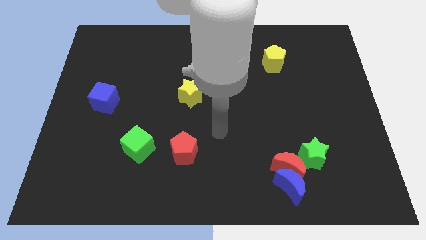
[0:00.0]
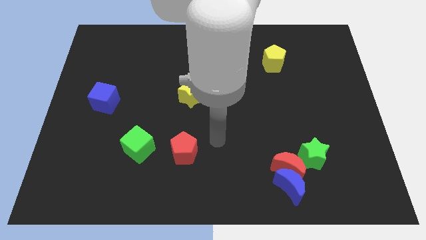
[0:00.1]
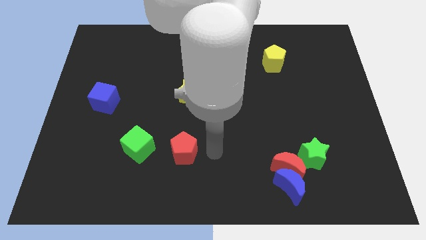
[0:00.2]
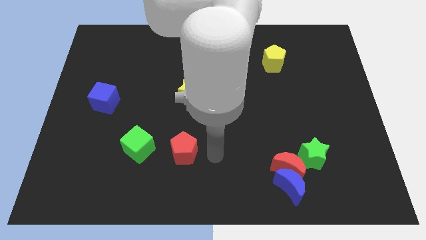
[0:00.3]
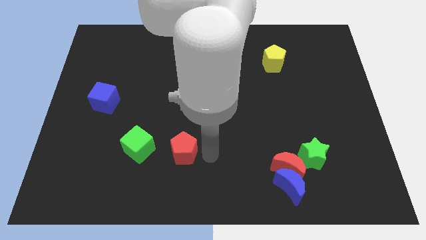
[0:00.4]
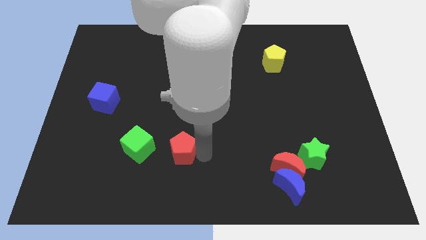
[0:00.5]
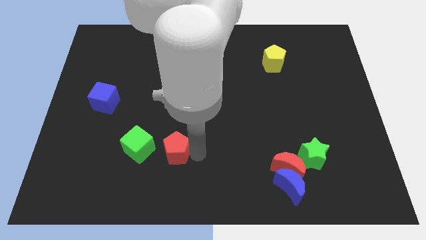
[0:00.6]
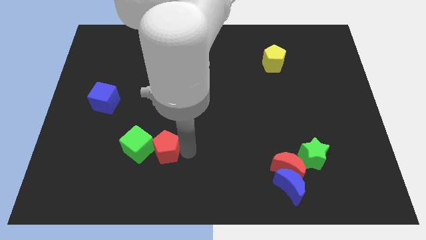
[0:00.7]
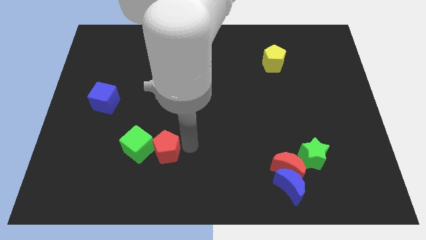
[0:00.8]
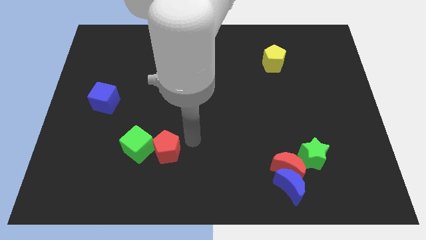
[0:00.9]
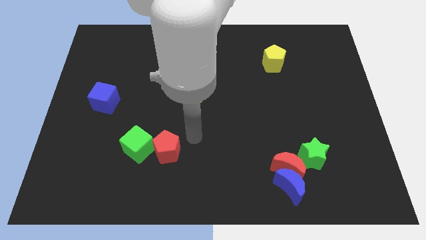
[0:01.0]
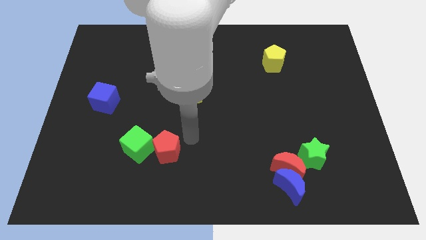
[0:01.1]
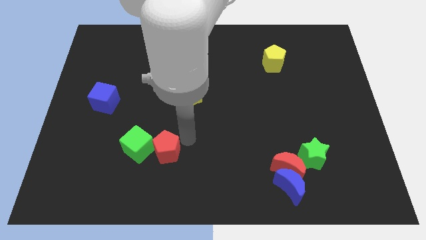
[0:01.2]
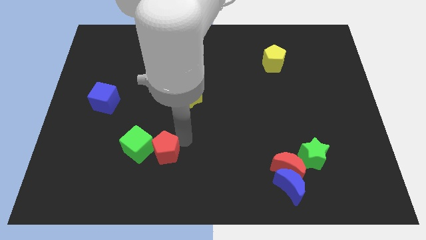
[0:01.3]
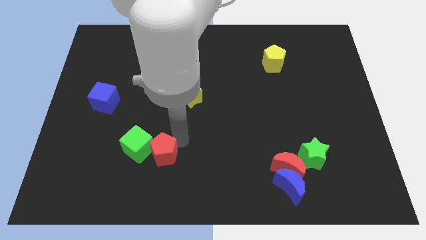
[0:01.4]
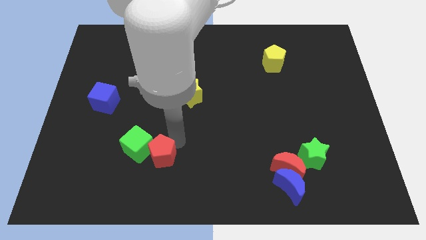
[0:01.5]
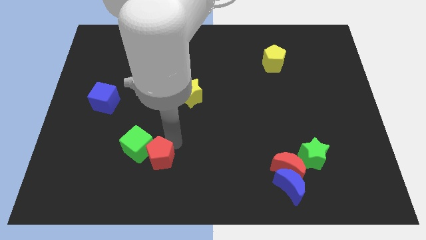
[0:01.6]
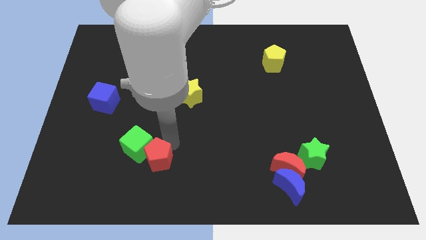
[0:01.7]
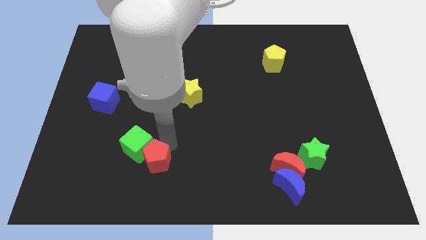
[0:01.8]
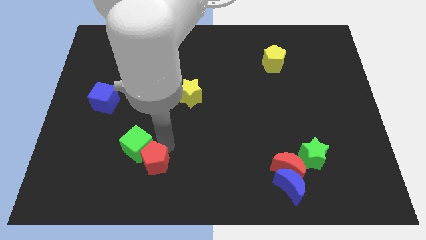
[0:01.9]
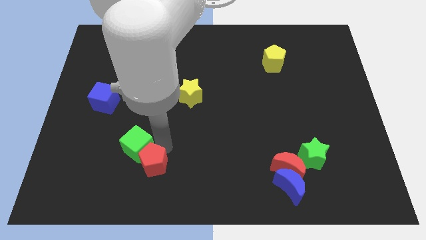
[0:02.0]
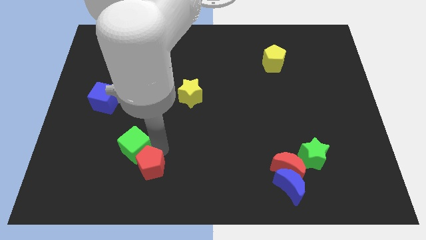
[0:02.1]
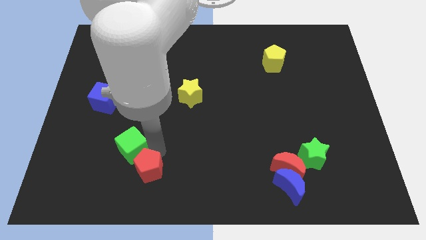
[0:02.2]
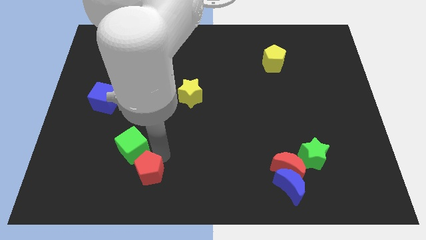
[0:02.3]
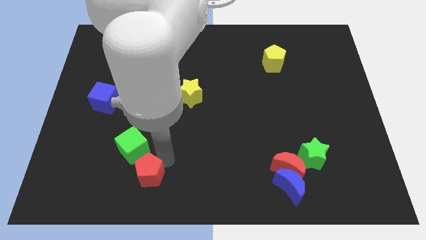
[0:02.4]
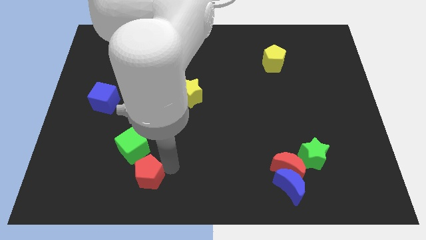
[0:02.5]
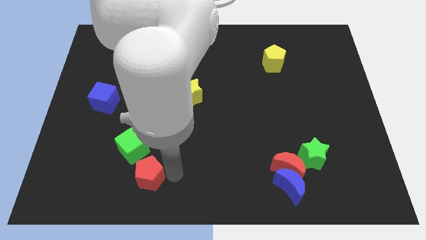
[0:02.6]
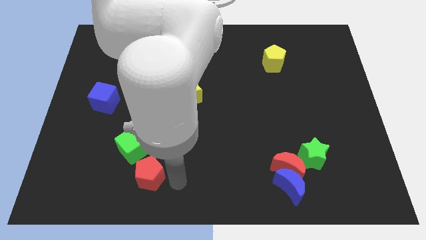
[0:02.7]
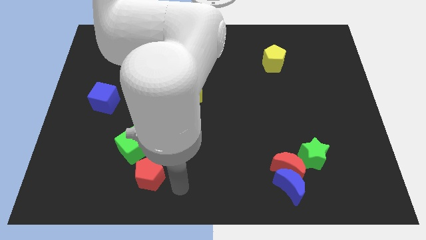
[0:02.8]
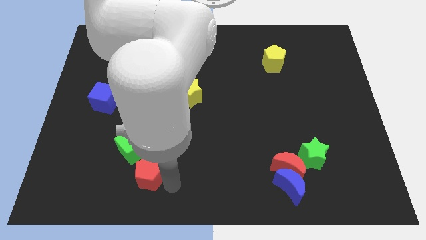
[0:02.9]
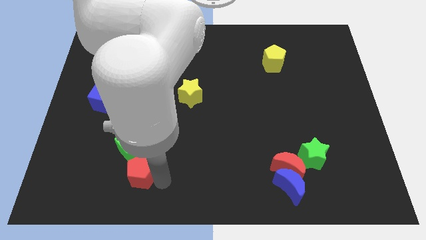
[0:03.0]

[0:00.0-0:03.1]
move the red pentagon to the left a little bit

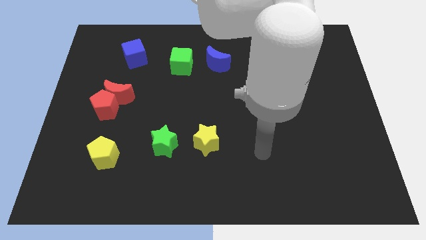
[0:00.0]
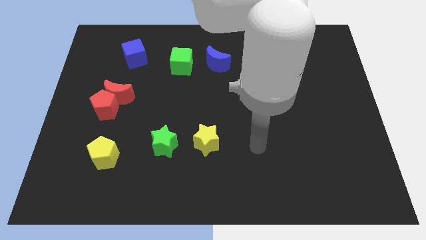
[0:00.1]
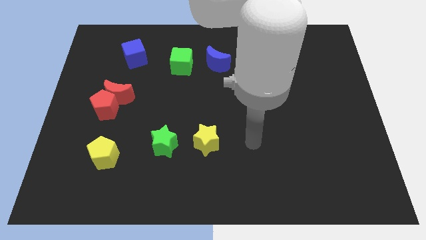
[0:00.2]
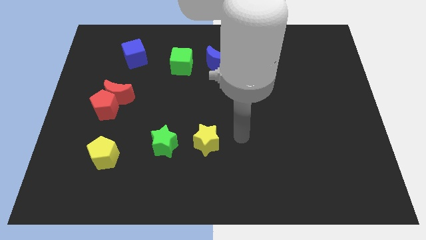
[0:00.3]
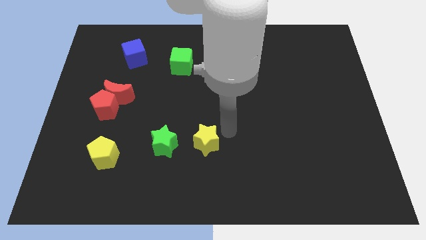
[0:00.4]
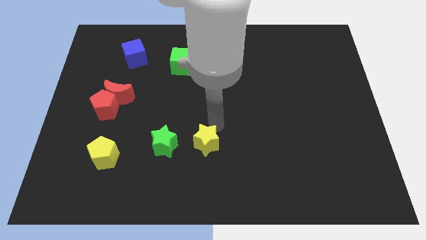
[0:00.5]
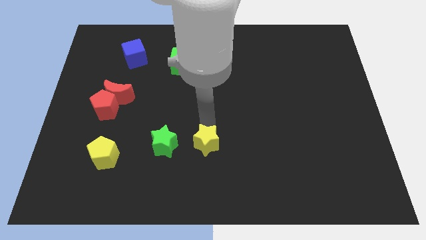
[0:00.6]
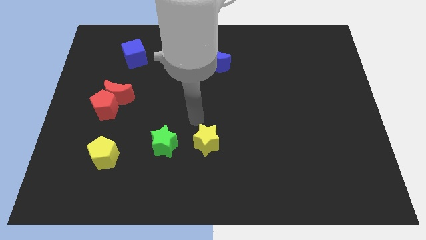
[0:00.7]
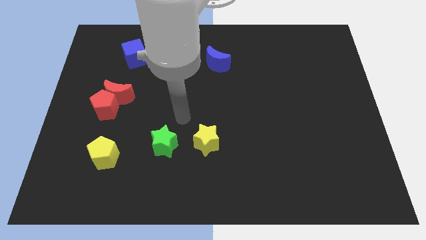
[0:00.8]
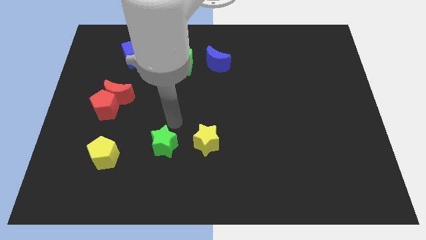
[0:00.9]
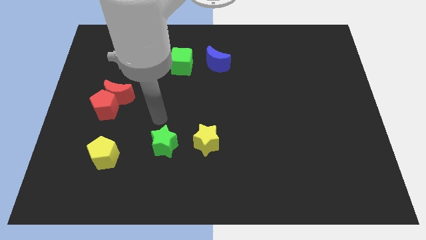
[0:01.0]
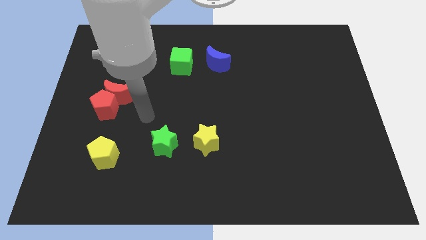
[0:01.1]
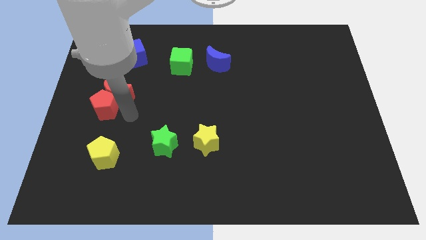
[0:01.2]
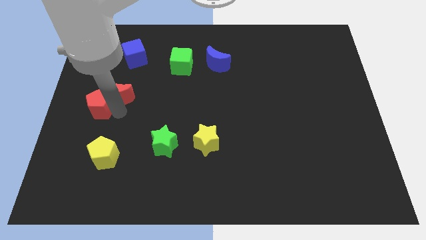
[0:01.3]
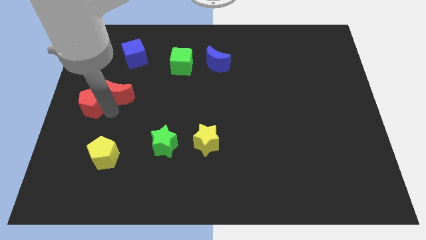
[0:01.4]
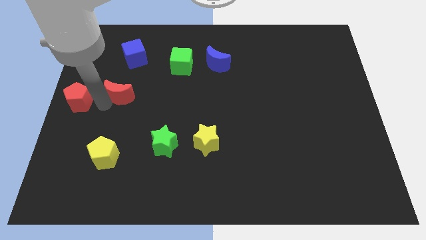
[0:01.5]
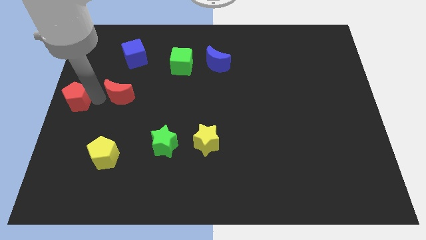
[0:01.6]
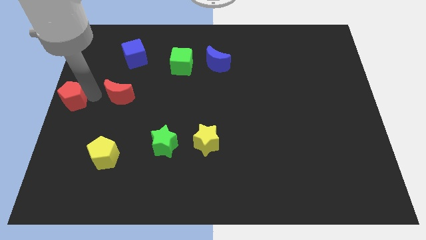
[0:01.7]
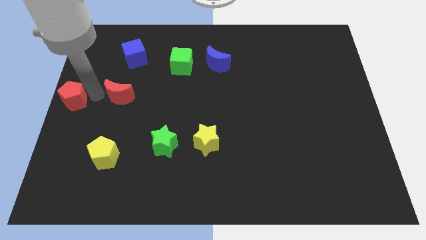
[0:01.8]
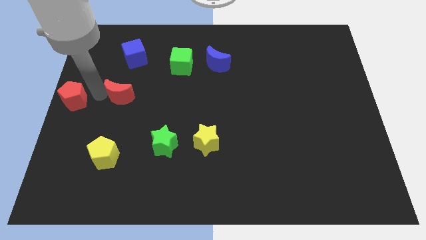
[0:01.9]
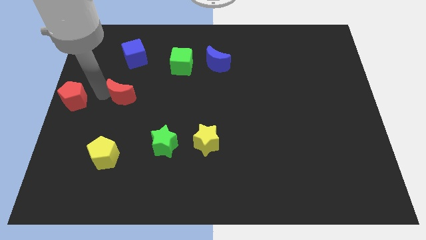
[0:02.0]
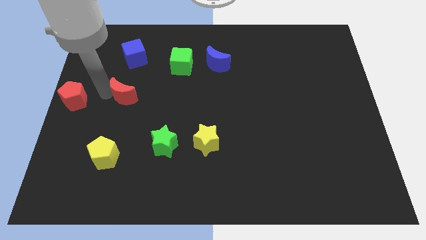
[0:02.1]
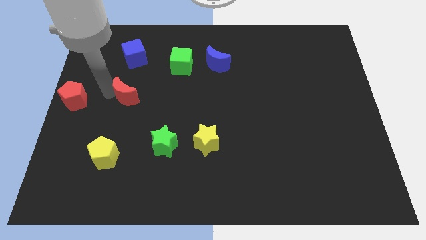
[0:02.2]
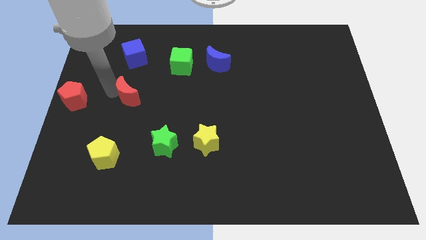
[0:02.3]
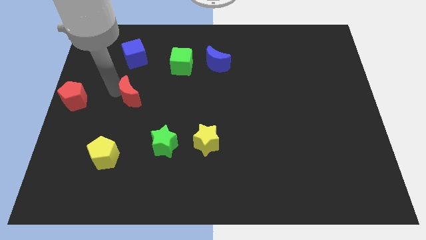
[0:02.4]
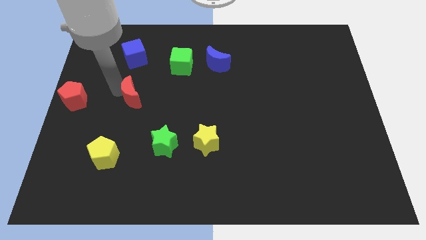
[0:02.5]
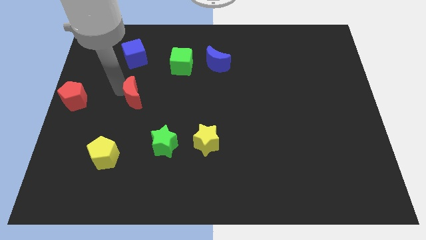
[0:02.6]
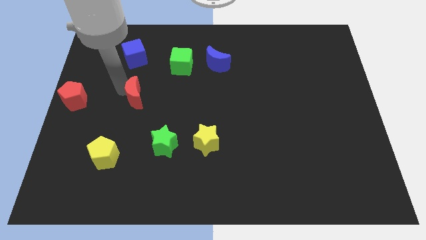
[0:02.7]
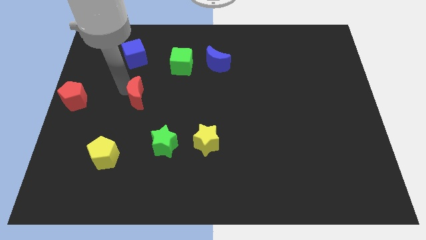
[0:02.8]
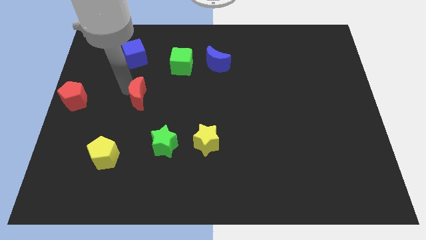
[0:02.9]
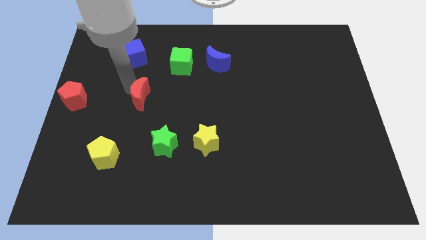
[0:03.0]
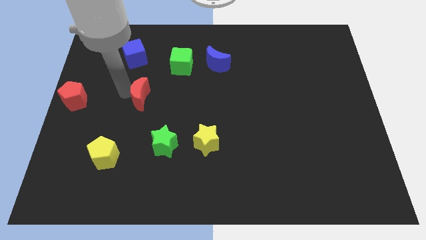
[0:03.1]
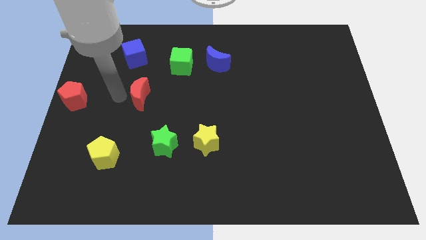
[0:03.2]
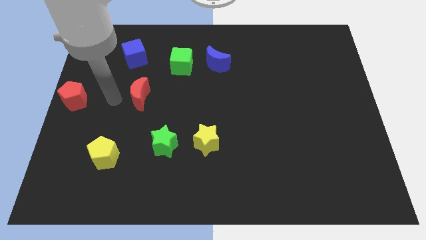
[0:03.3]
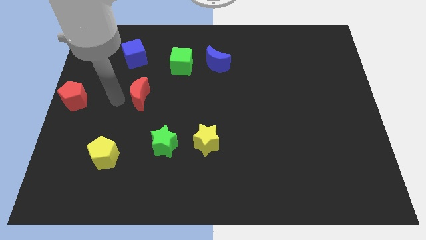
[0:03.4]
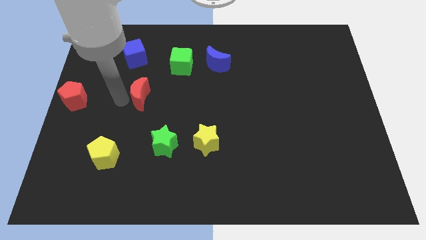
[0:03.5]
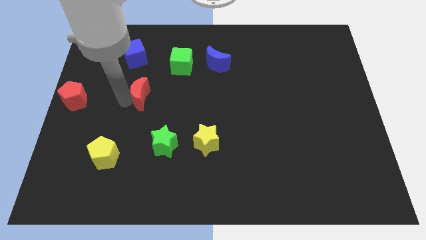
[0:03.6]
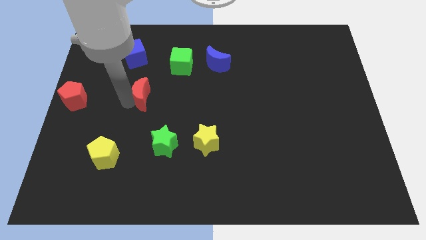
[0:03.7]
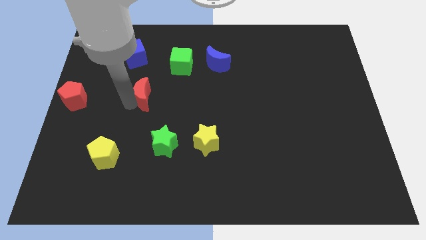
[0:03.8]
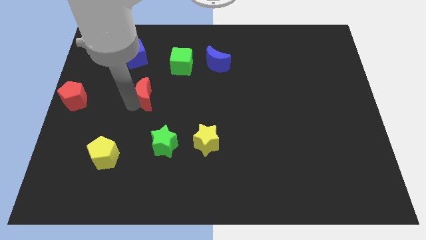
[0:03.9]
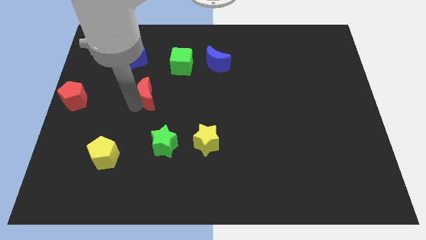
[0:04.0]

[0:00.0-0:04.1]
move the red moon slightly right

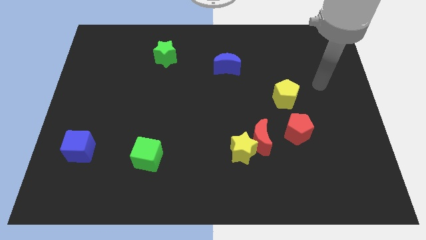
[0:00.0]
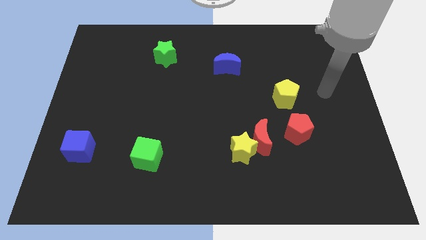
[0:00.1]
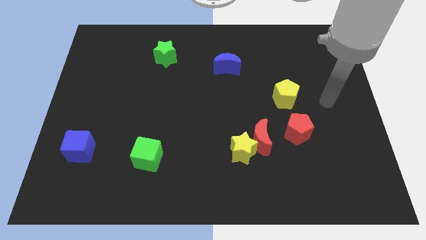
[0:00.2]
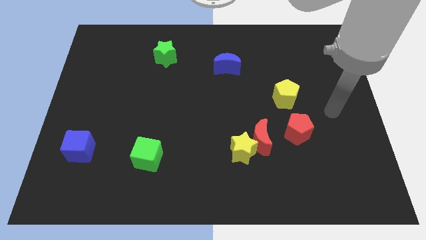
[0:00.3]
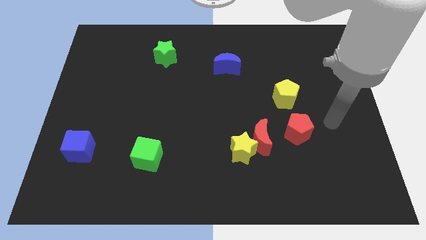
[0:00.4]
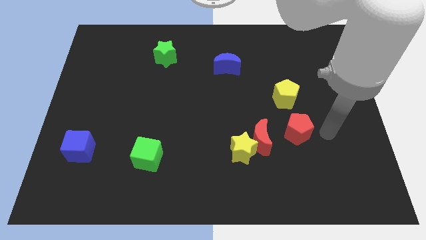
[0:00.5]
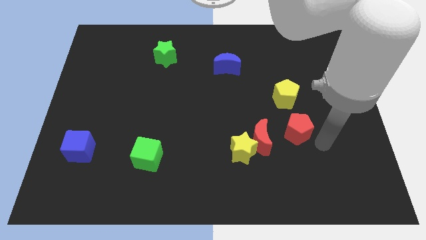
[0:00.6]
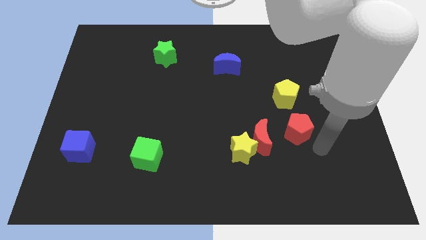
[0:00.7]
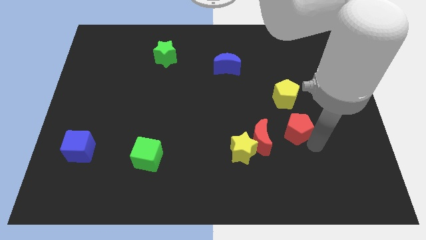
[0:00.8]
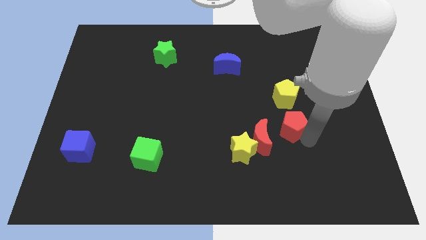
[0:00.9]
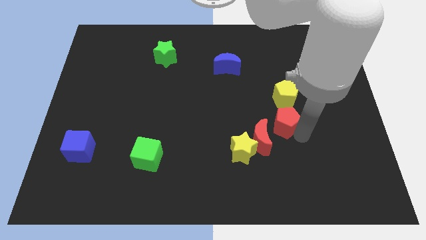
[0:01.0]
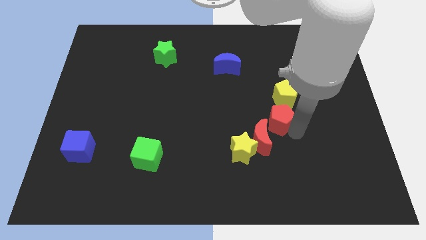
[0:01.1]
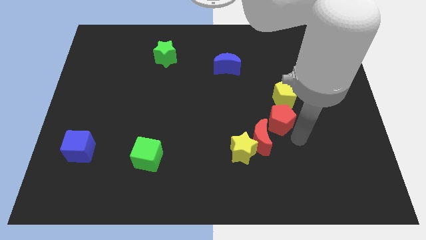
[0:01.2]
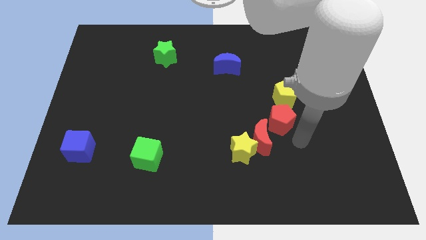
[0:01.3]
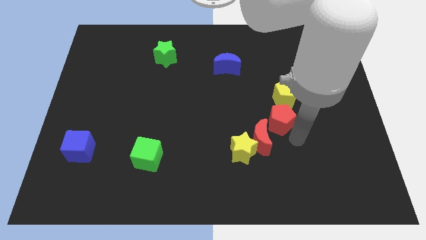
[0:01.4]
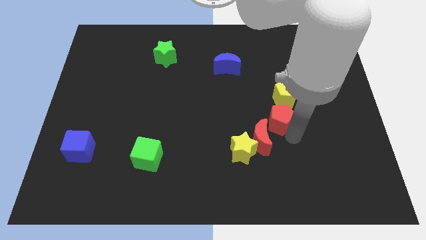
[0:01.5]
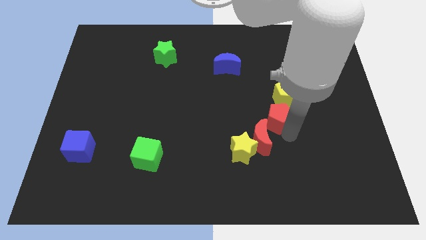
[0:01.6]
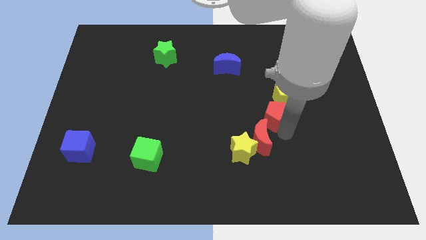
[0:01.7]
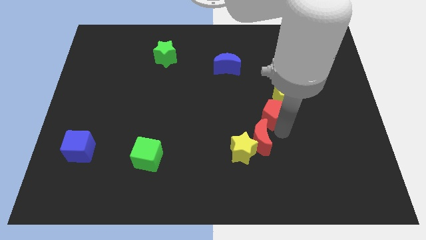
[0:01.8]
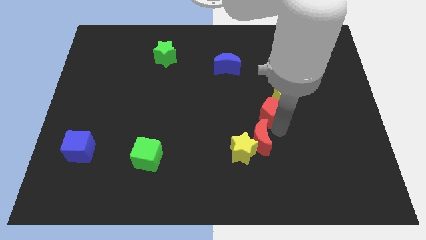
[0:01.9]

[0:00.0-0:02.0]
move the red pentagon a little diagonally up and to the left
